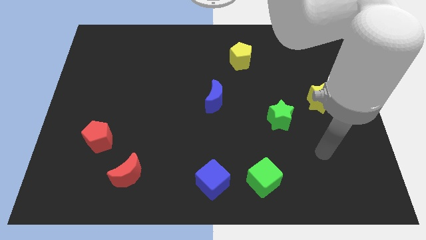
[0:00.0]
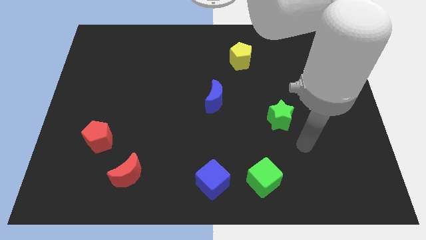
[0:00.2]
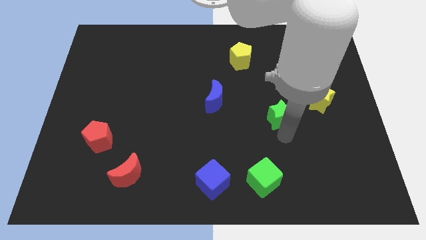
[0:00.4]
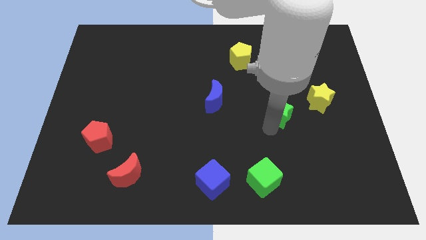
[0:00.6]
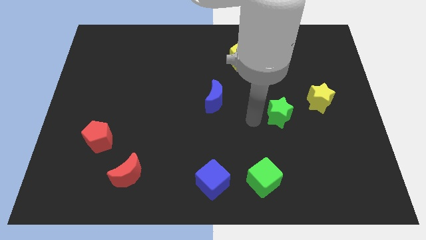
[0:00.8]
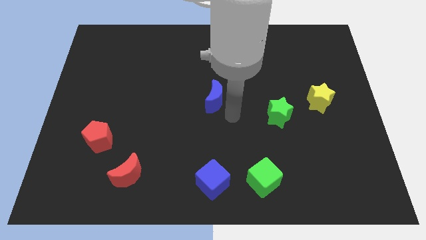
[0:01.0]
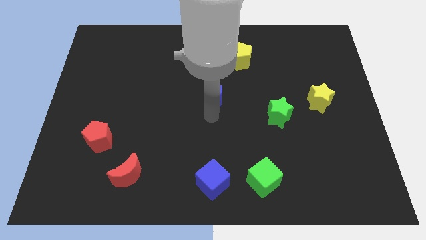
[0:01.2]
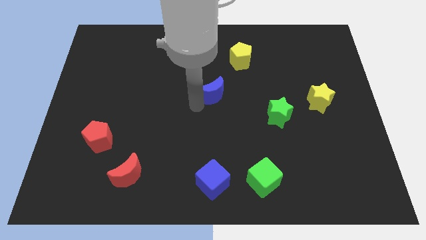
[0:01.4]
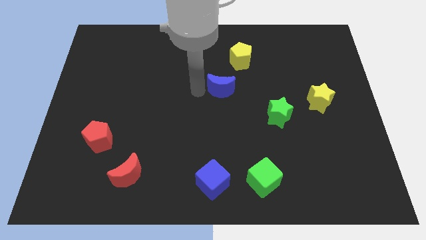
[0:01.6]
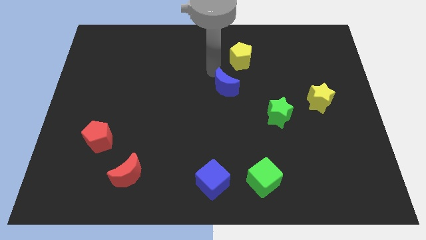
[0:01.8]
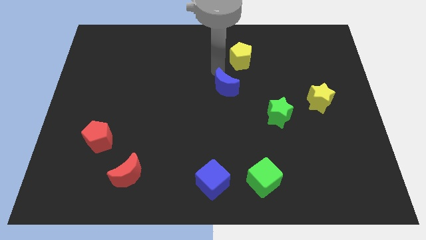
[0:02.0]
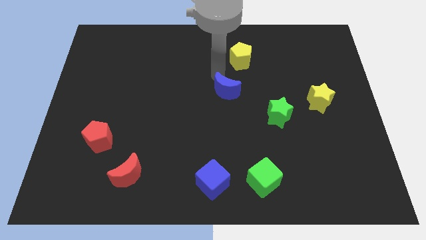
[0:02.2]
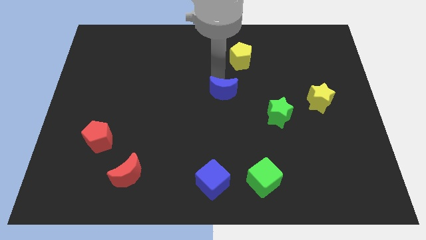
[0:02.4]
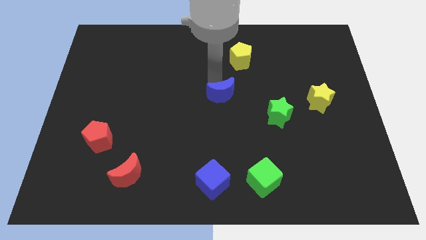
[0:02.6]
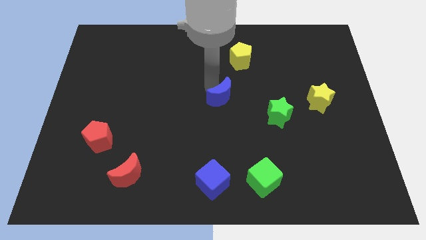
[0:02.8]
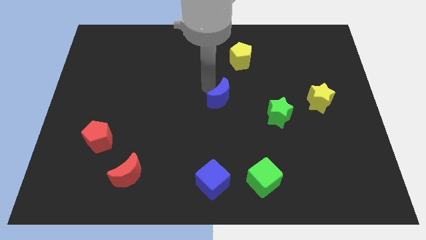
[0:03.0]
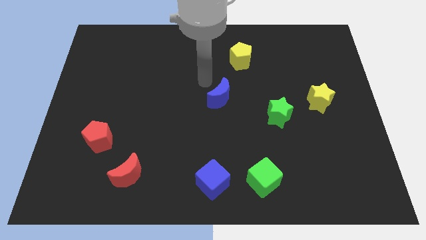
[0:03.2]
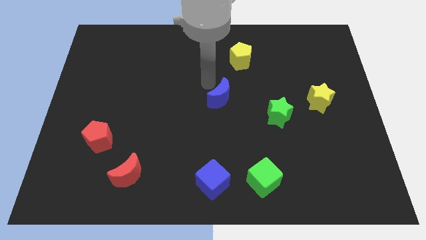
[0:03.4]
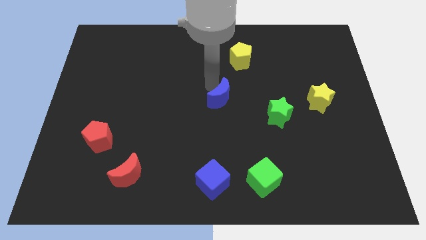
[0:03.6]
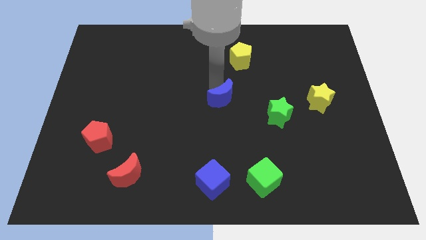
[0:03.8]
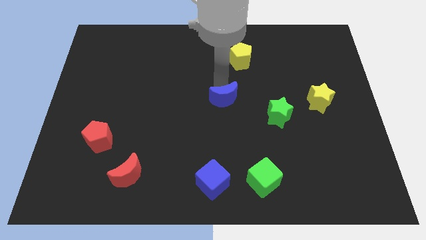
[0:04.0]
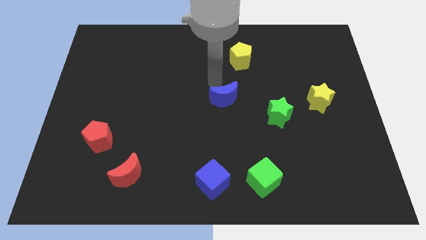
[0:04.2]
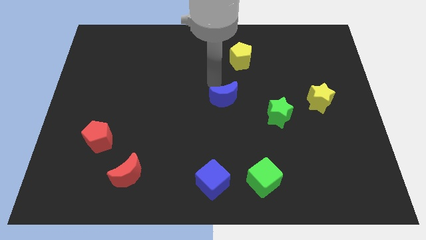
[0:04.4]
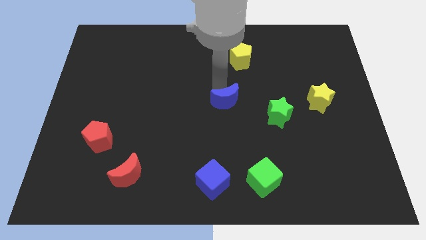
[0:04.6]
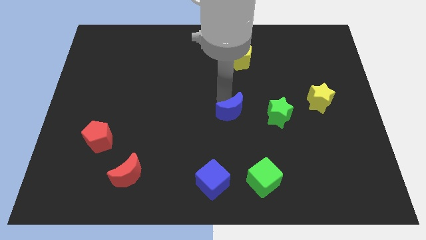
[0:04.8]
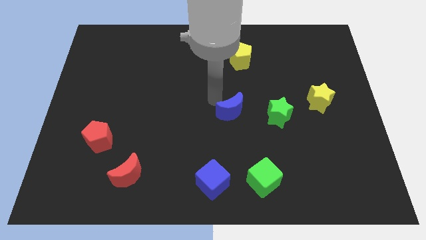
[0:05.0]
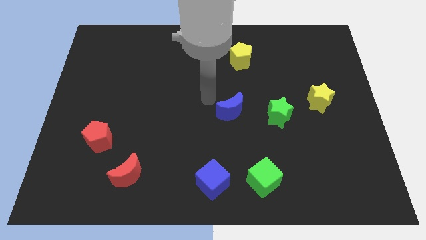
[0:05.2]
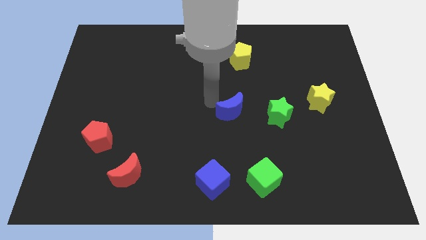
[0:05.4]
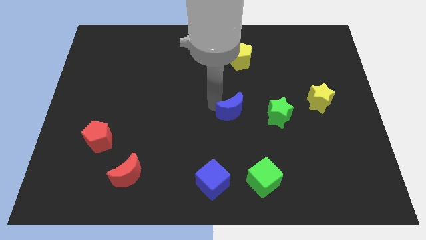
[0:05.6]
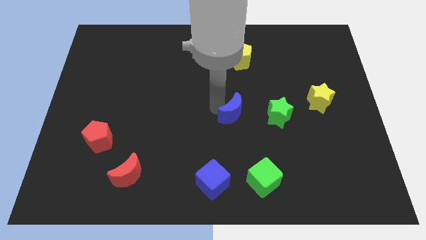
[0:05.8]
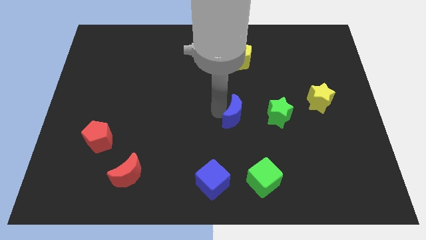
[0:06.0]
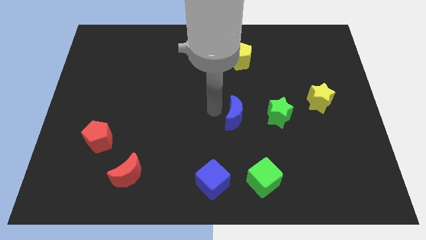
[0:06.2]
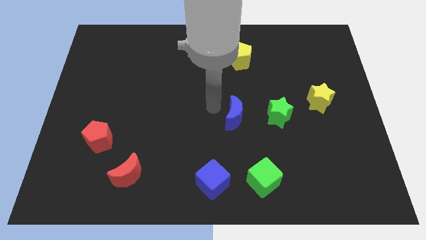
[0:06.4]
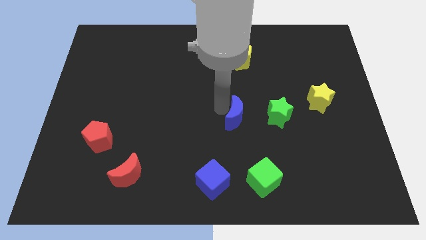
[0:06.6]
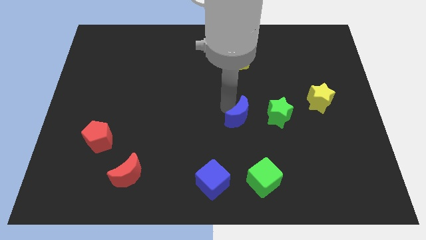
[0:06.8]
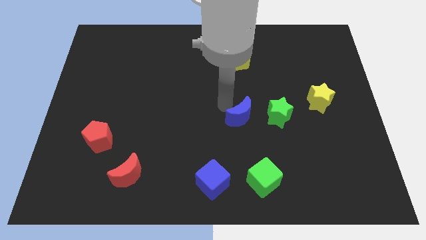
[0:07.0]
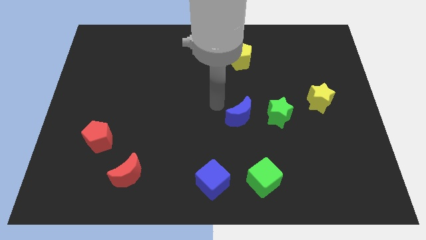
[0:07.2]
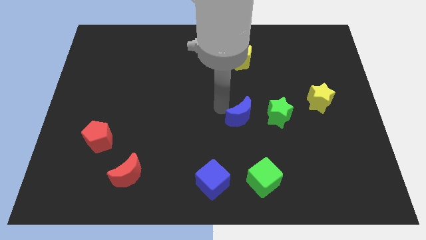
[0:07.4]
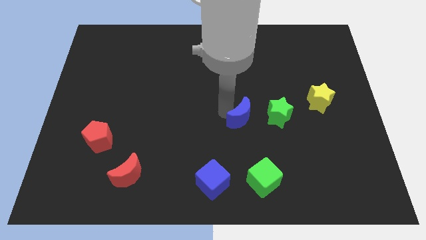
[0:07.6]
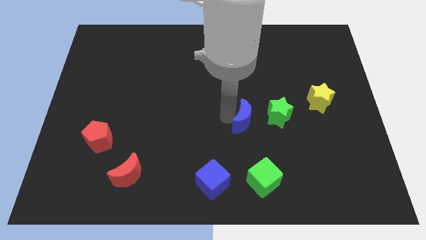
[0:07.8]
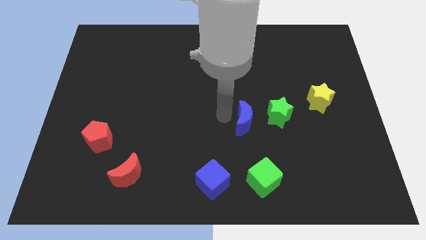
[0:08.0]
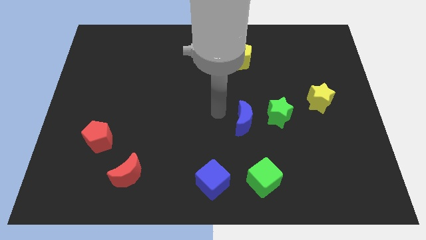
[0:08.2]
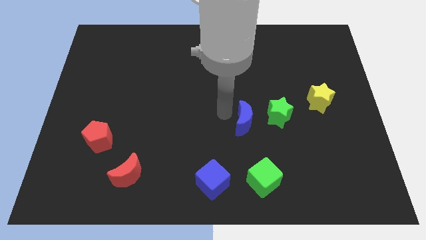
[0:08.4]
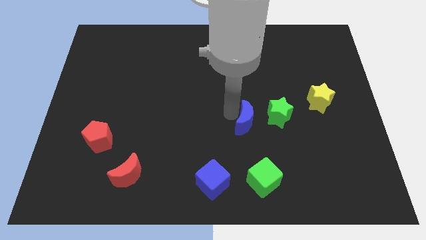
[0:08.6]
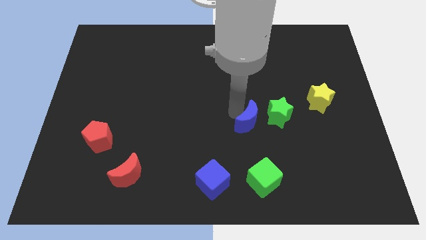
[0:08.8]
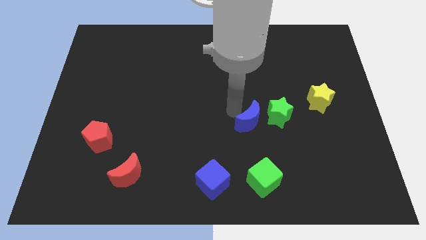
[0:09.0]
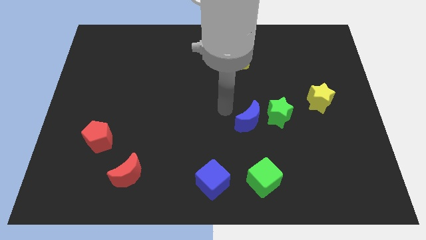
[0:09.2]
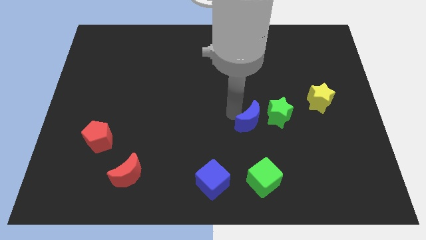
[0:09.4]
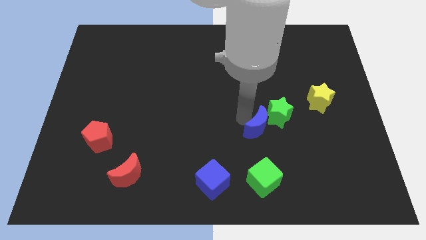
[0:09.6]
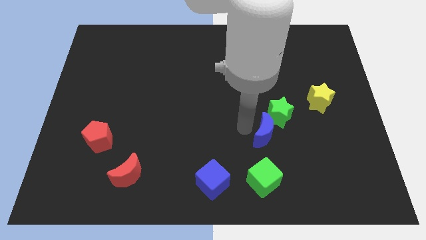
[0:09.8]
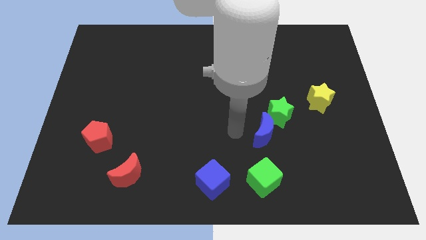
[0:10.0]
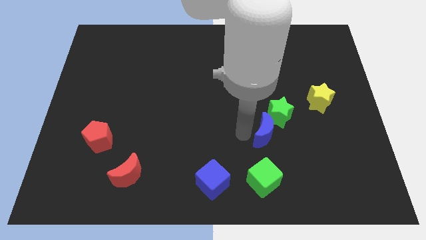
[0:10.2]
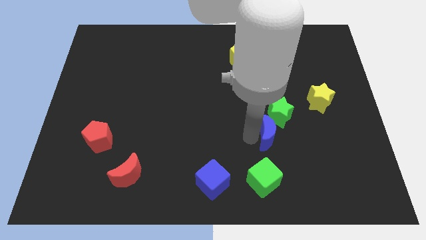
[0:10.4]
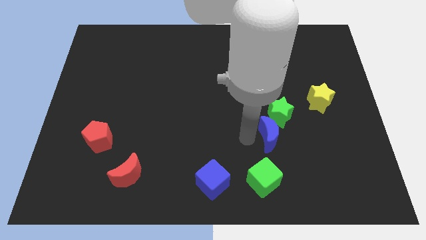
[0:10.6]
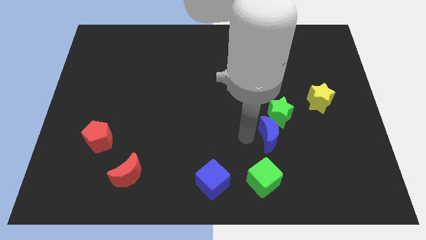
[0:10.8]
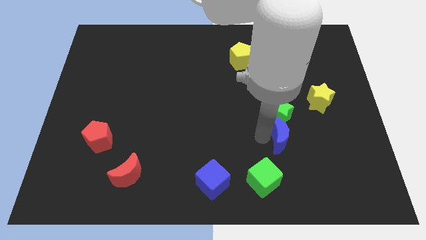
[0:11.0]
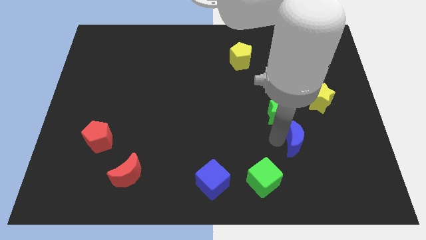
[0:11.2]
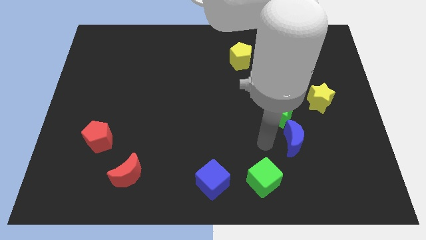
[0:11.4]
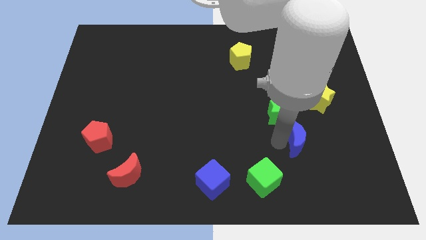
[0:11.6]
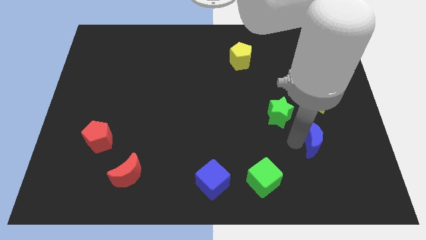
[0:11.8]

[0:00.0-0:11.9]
push the blue moon to the bottom side of the yellow star
